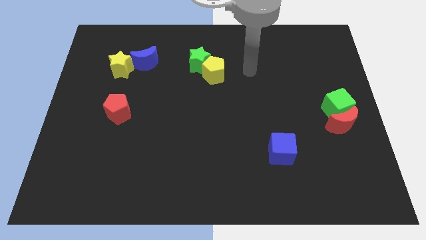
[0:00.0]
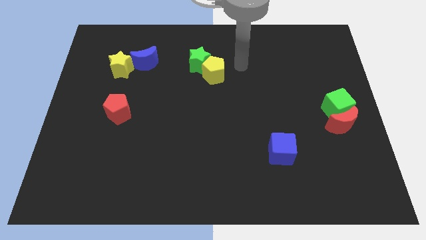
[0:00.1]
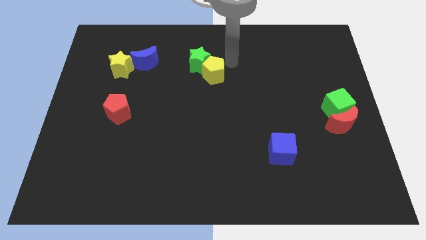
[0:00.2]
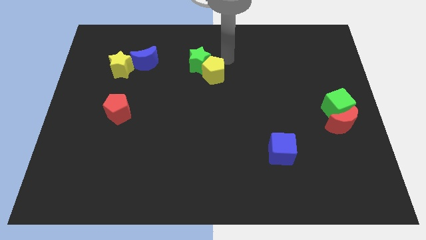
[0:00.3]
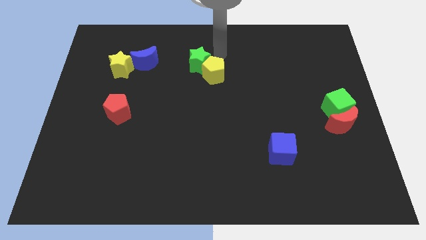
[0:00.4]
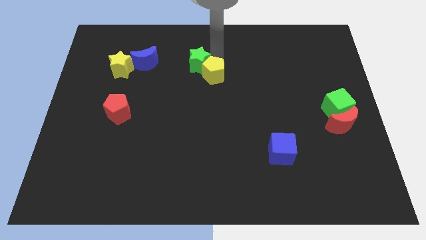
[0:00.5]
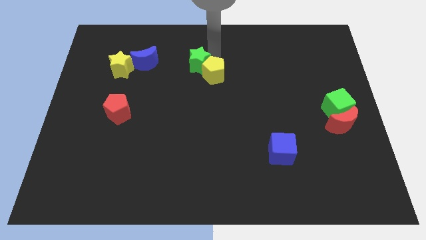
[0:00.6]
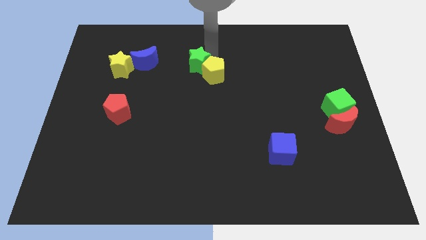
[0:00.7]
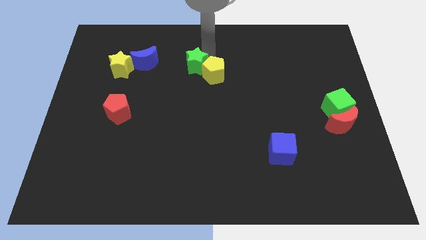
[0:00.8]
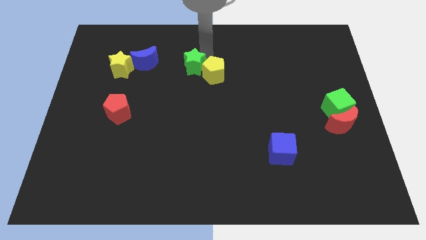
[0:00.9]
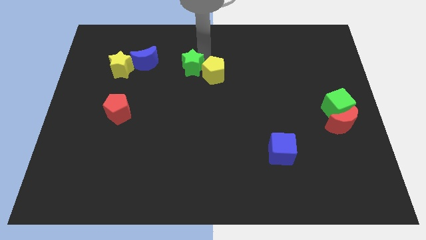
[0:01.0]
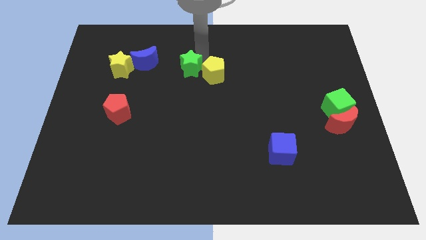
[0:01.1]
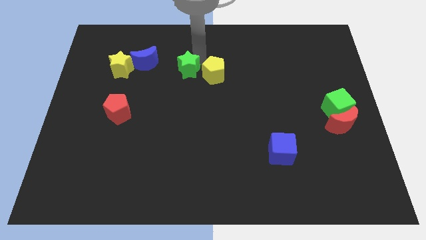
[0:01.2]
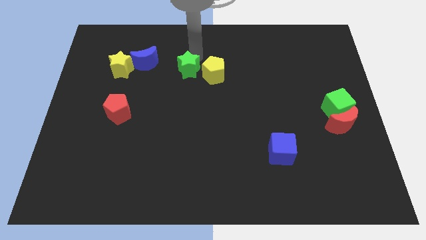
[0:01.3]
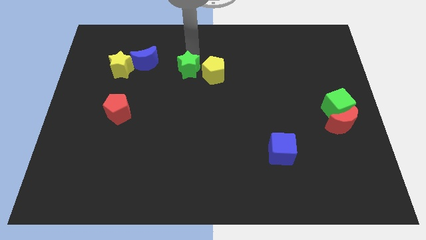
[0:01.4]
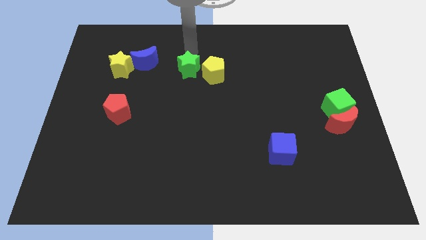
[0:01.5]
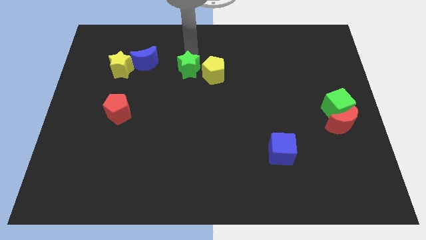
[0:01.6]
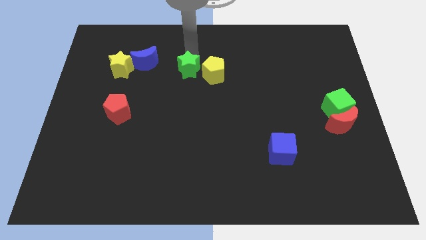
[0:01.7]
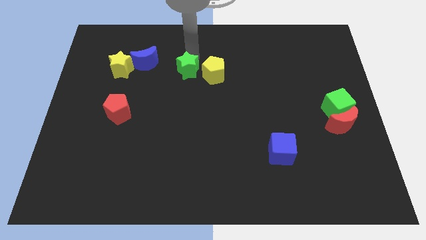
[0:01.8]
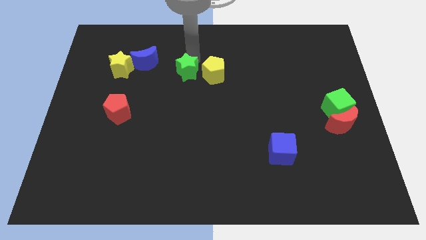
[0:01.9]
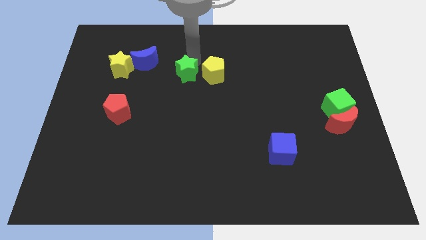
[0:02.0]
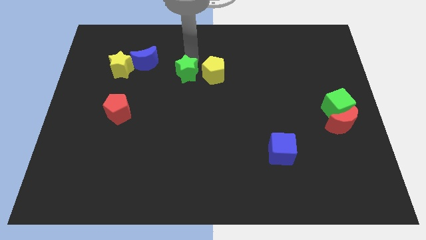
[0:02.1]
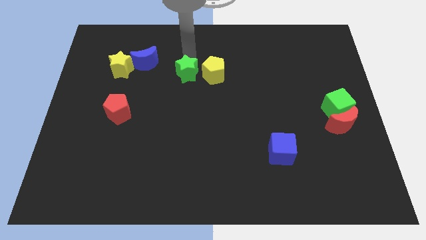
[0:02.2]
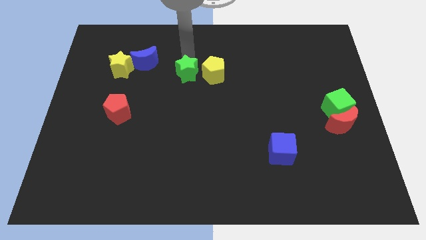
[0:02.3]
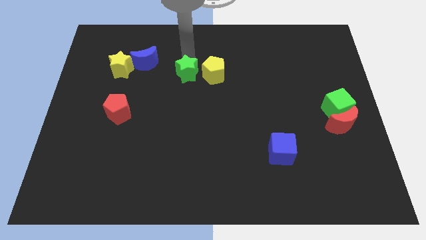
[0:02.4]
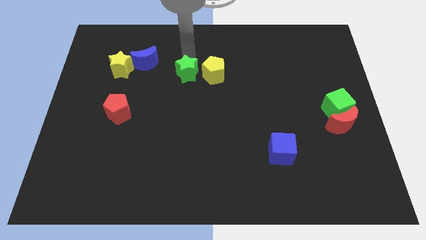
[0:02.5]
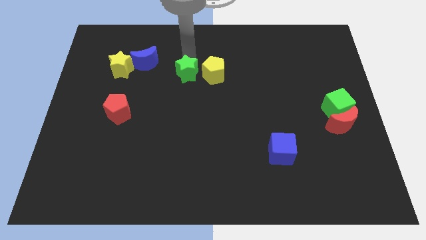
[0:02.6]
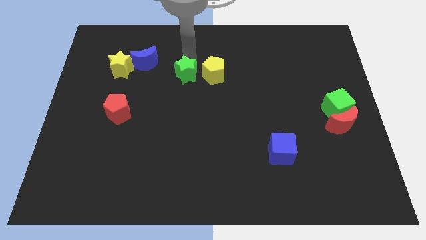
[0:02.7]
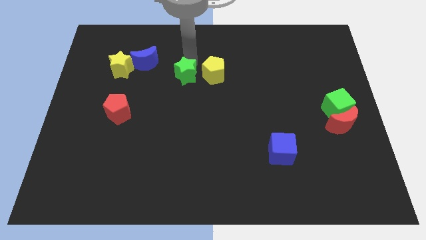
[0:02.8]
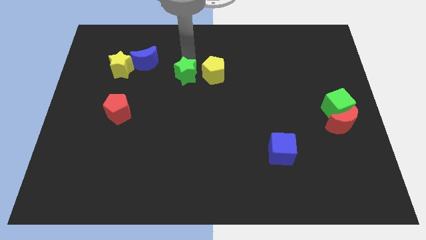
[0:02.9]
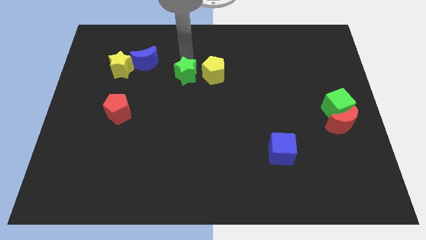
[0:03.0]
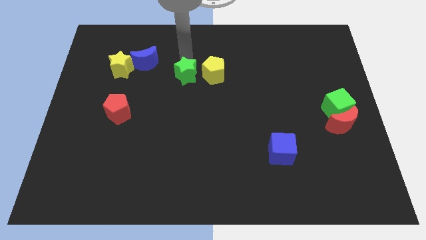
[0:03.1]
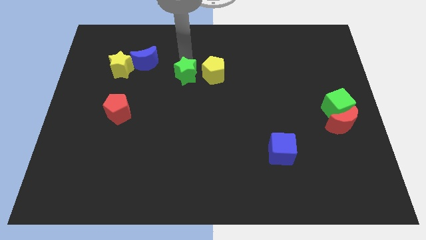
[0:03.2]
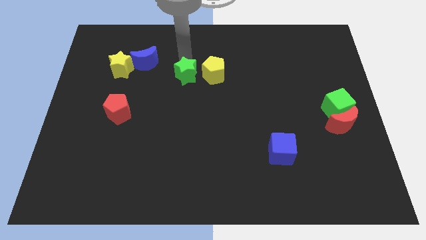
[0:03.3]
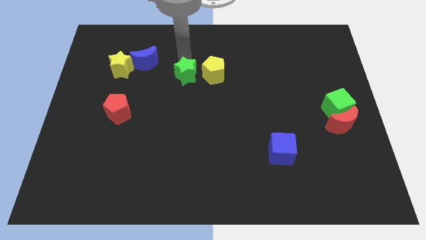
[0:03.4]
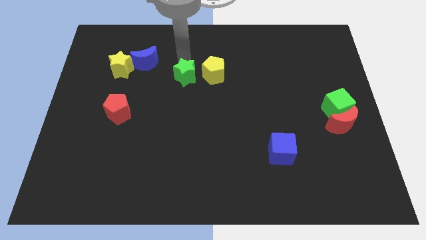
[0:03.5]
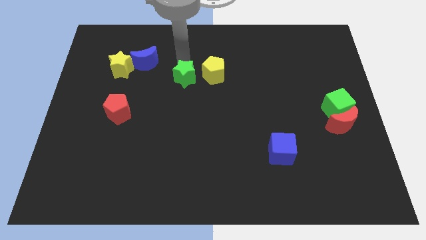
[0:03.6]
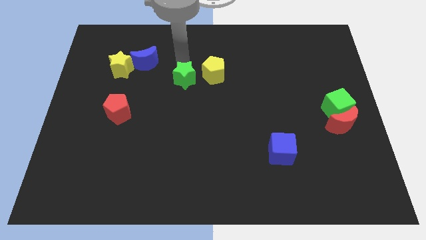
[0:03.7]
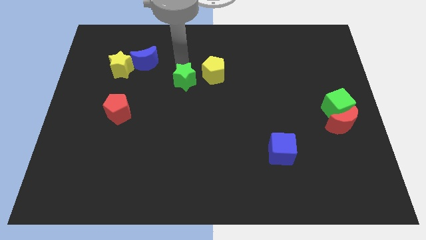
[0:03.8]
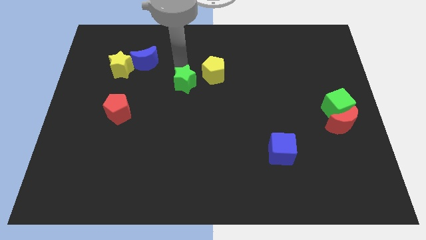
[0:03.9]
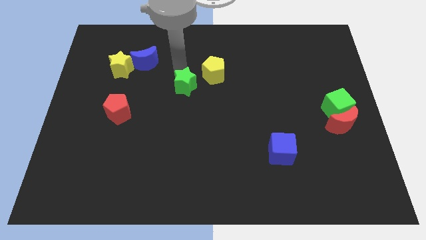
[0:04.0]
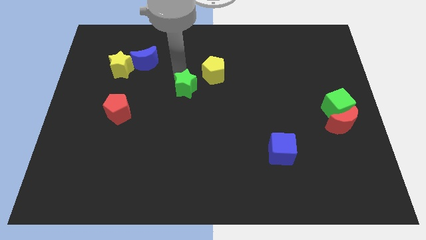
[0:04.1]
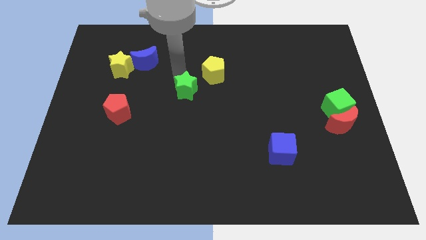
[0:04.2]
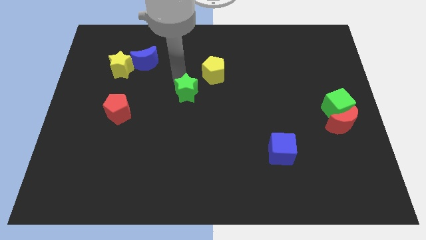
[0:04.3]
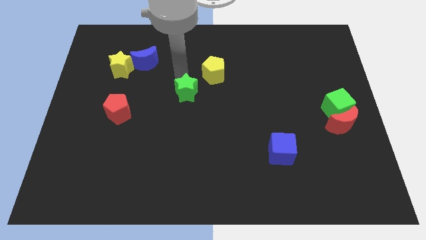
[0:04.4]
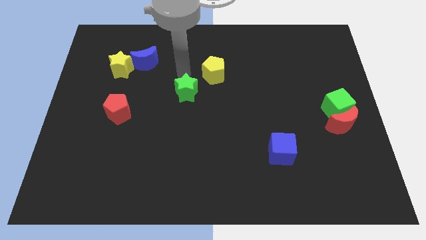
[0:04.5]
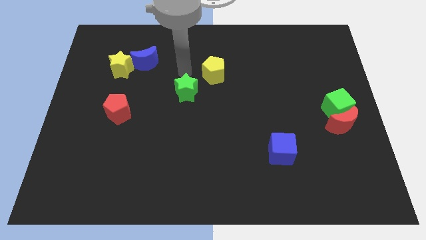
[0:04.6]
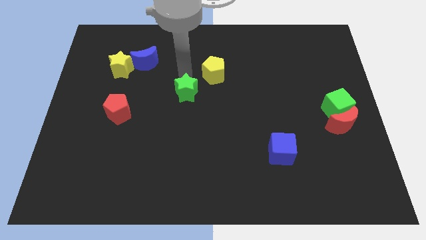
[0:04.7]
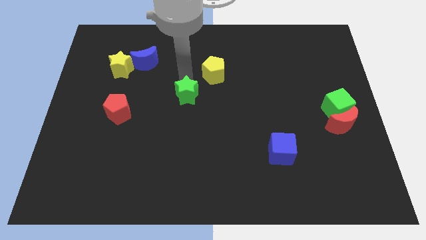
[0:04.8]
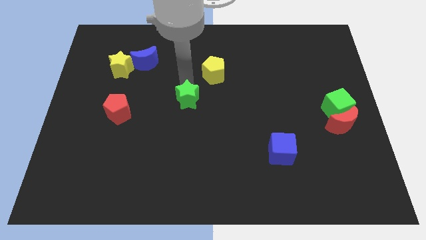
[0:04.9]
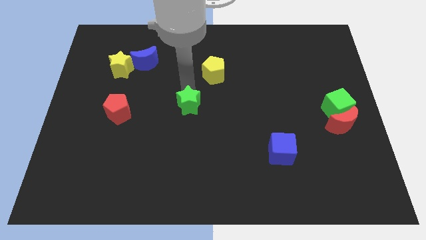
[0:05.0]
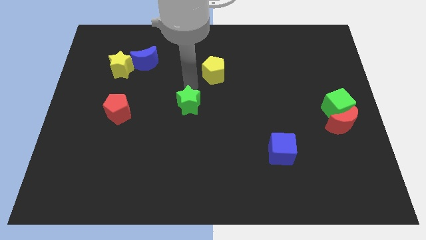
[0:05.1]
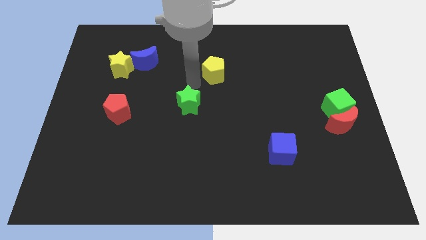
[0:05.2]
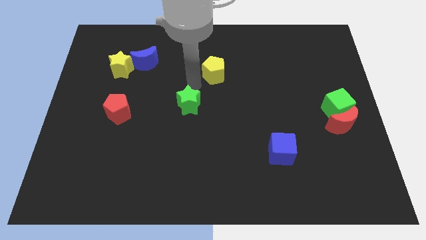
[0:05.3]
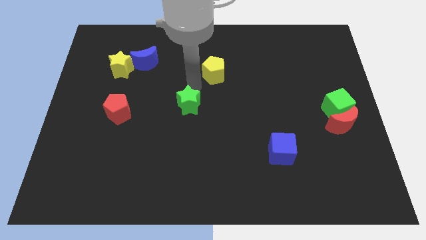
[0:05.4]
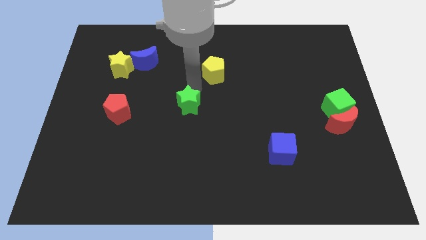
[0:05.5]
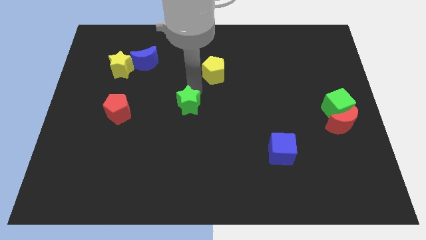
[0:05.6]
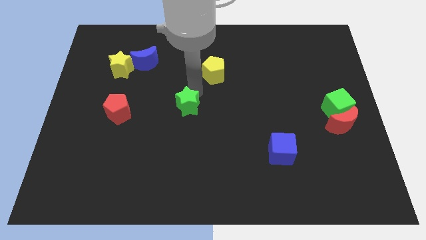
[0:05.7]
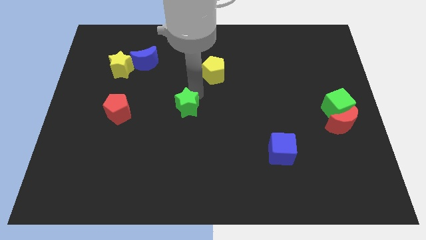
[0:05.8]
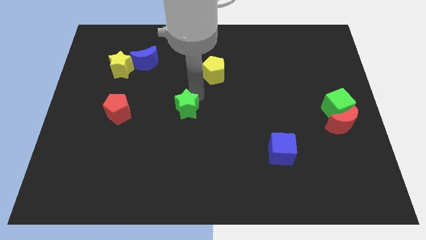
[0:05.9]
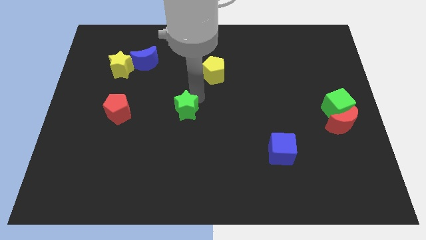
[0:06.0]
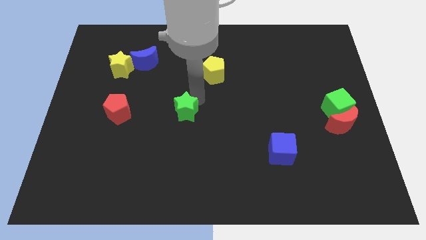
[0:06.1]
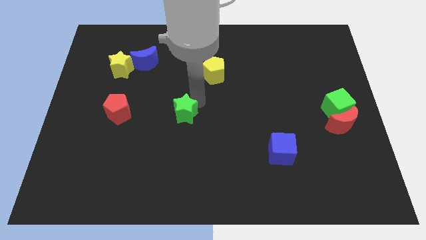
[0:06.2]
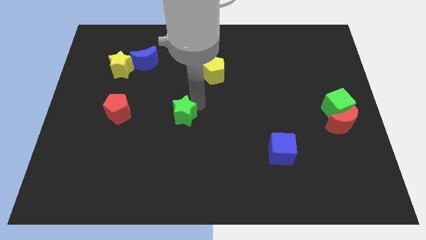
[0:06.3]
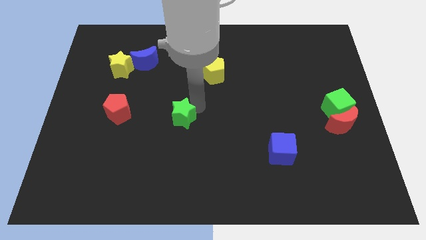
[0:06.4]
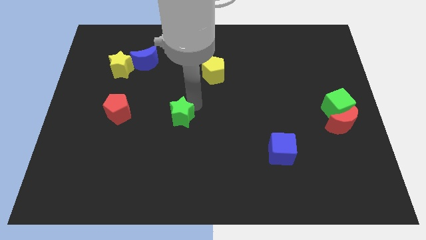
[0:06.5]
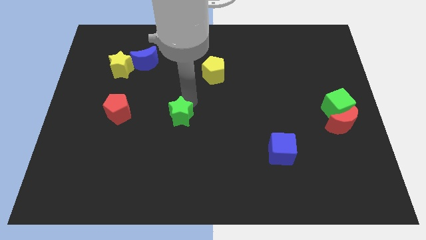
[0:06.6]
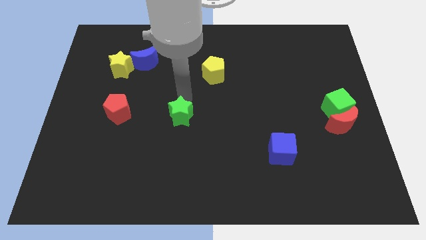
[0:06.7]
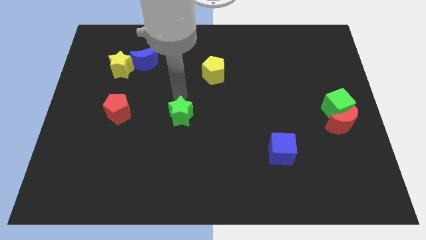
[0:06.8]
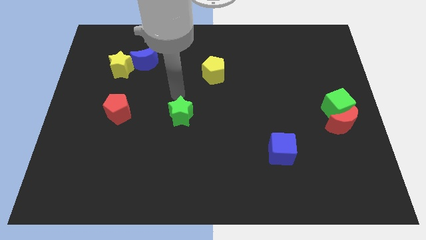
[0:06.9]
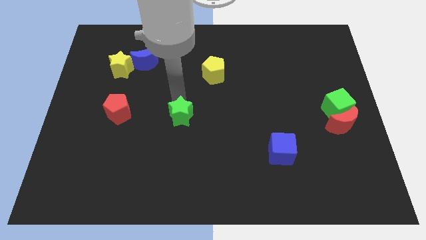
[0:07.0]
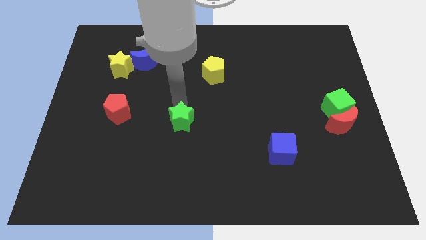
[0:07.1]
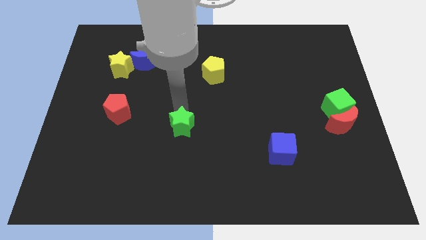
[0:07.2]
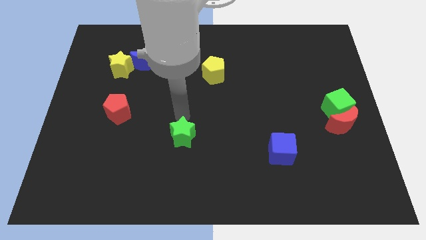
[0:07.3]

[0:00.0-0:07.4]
push the green star down

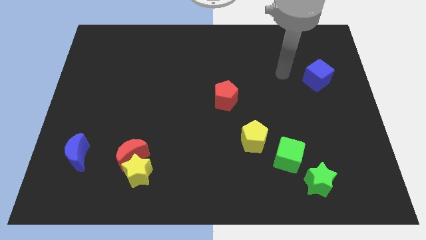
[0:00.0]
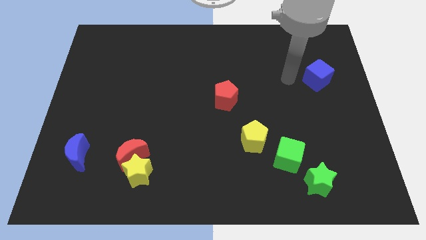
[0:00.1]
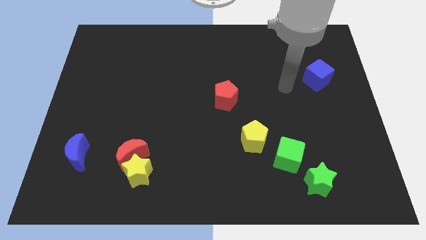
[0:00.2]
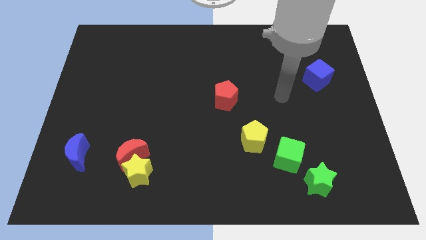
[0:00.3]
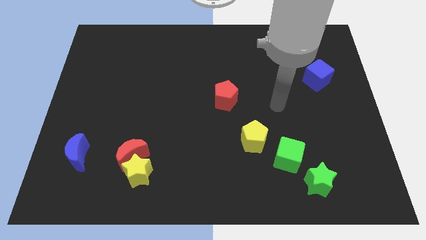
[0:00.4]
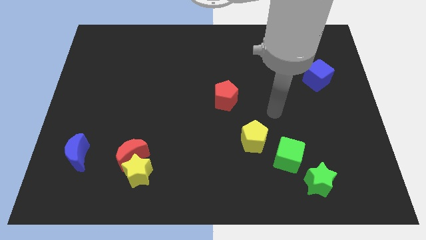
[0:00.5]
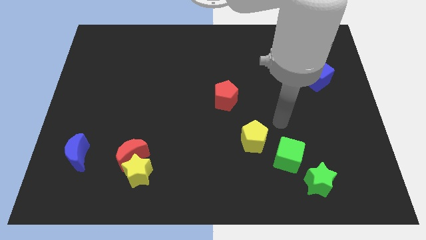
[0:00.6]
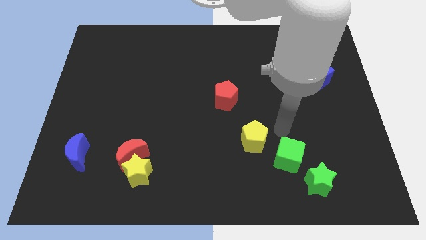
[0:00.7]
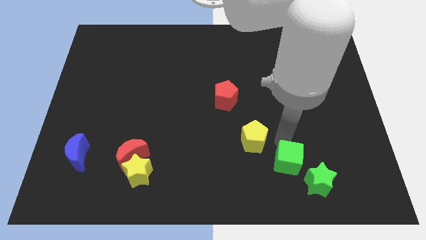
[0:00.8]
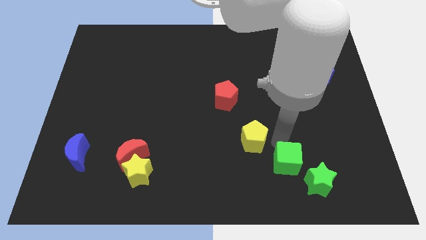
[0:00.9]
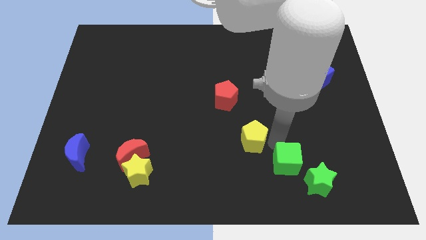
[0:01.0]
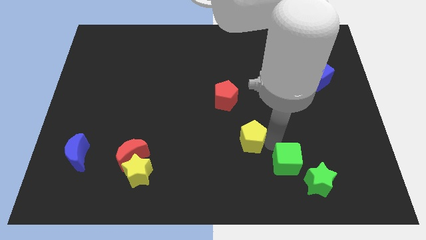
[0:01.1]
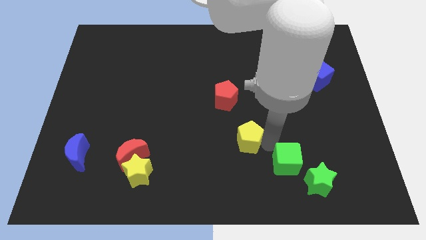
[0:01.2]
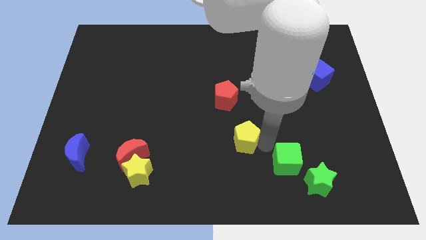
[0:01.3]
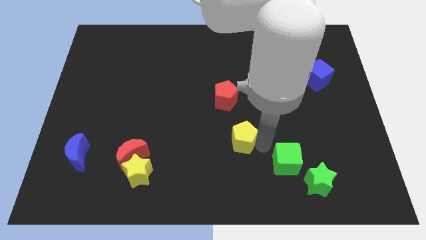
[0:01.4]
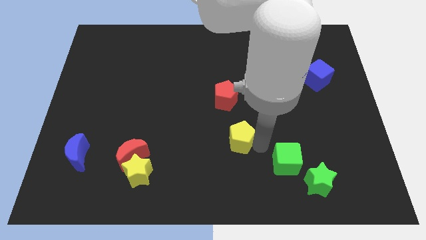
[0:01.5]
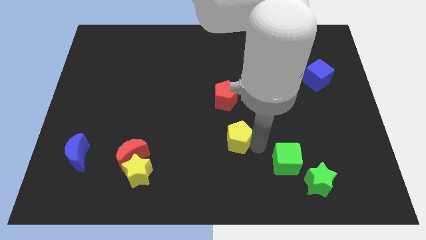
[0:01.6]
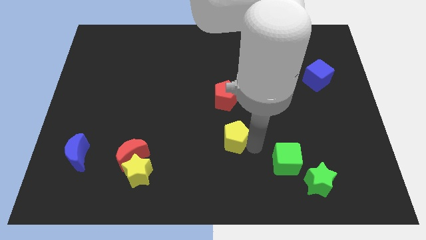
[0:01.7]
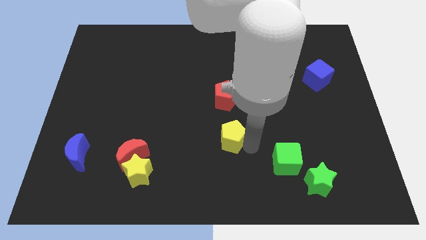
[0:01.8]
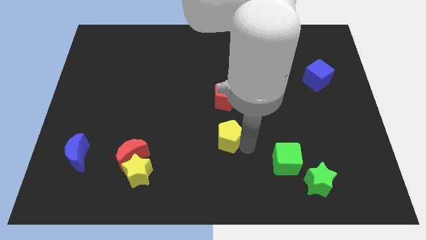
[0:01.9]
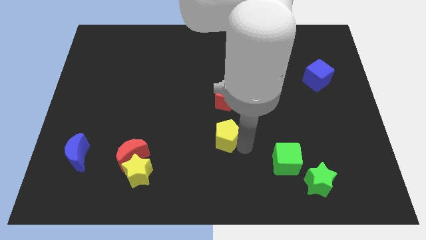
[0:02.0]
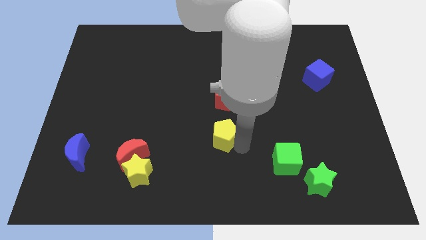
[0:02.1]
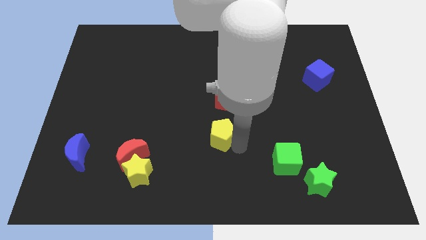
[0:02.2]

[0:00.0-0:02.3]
slightly slide the yellow pentagon left
